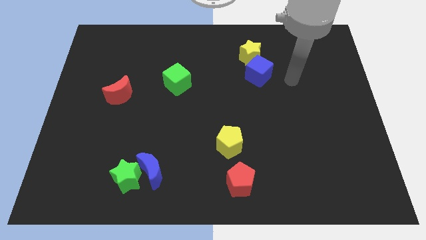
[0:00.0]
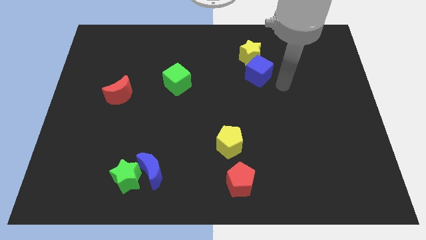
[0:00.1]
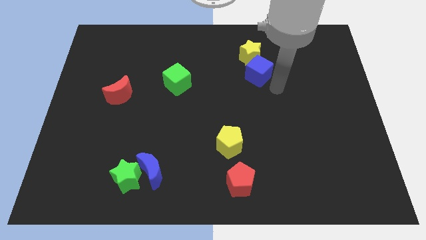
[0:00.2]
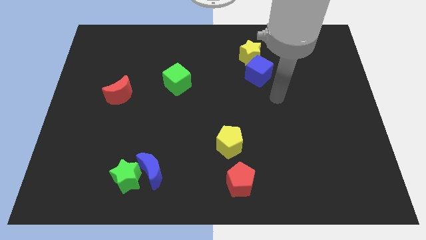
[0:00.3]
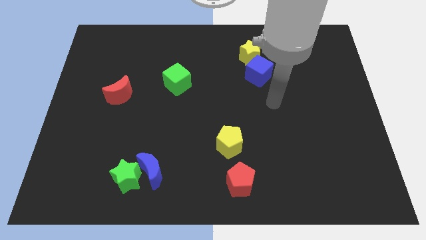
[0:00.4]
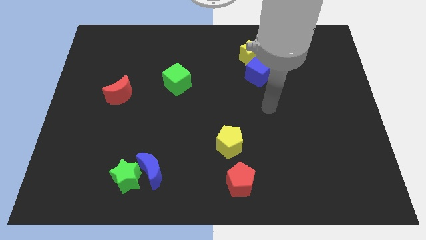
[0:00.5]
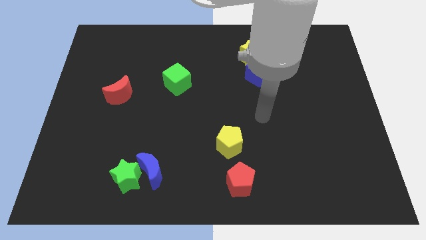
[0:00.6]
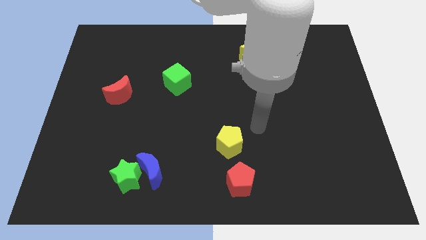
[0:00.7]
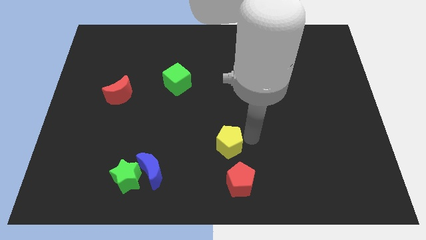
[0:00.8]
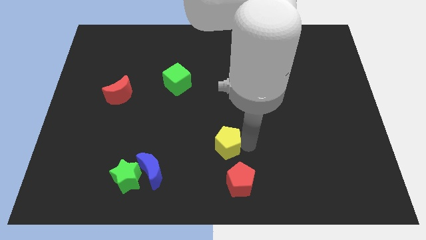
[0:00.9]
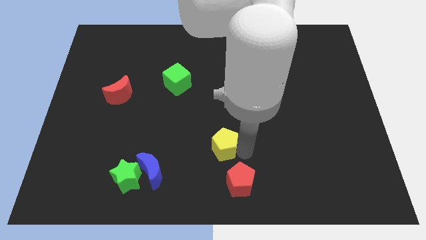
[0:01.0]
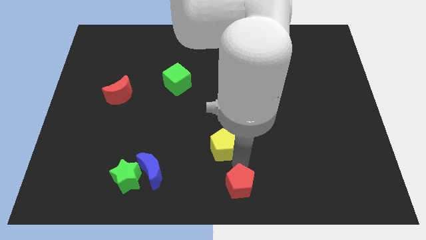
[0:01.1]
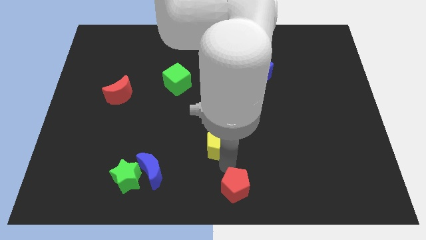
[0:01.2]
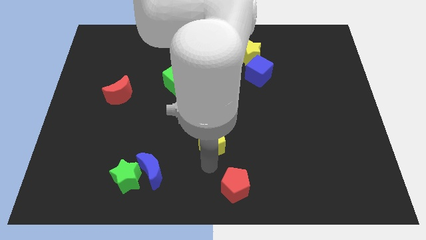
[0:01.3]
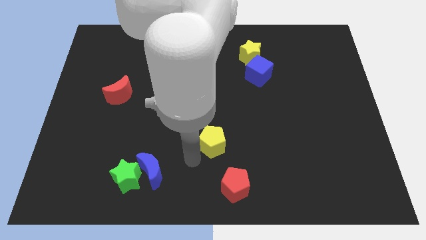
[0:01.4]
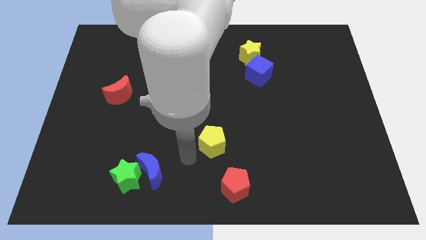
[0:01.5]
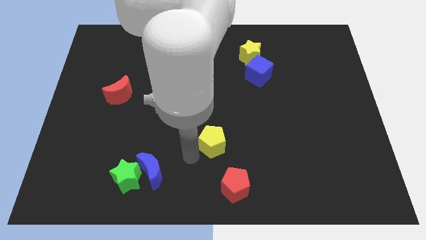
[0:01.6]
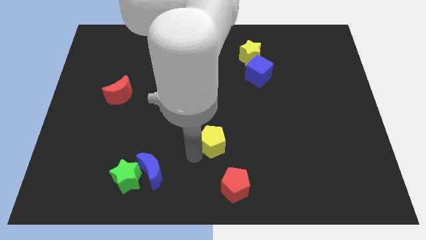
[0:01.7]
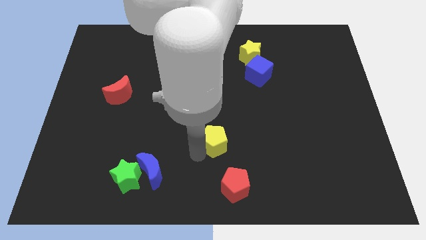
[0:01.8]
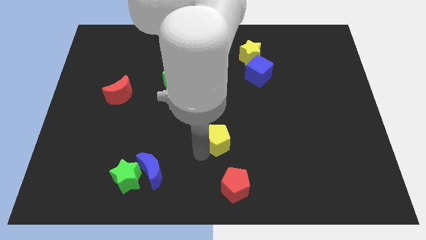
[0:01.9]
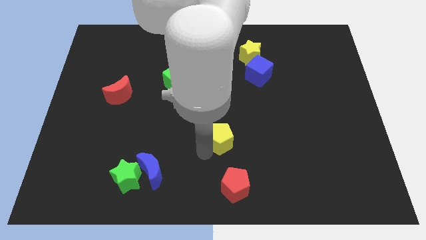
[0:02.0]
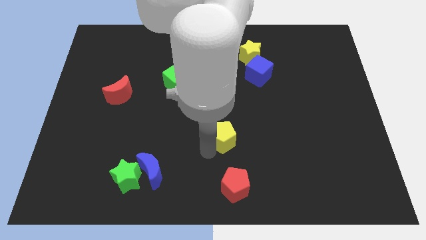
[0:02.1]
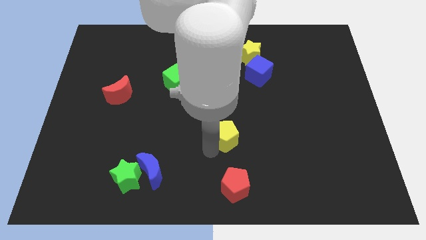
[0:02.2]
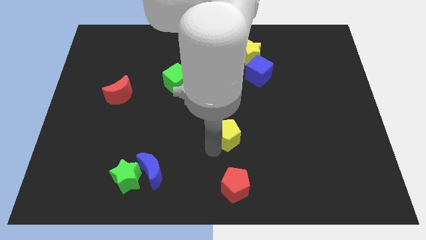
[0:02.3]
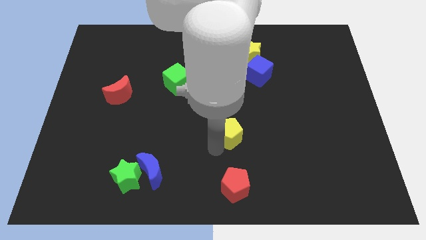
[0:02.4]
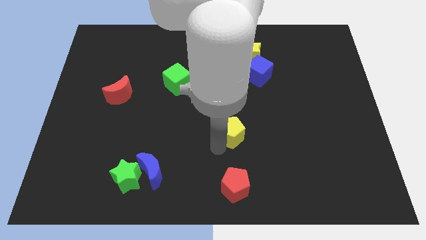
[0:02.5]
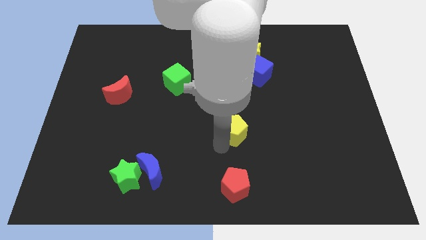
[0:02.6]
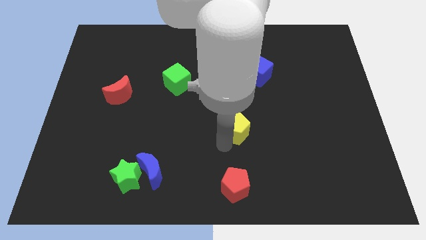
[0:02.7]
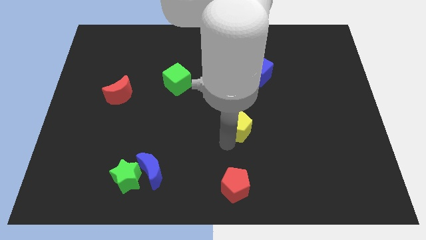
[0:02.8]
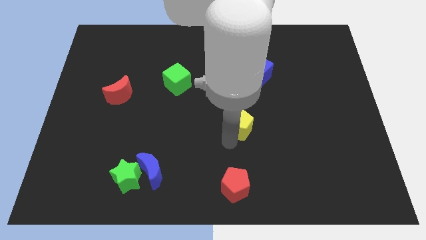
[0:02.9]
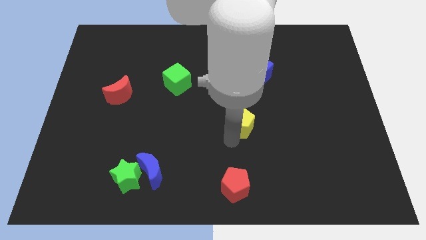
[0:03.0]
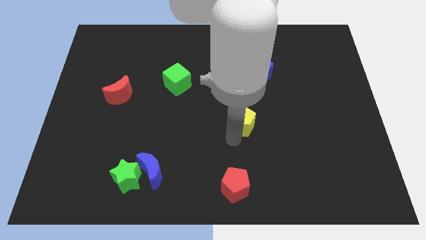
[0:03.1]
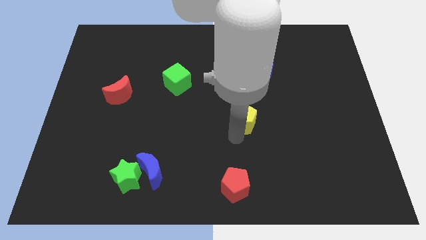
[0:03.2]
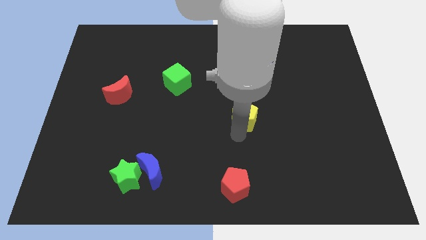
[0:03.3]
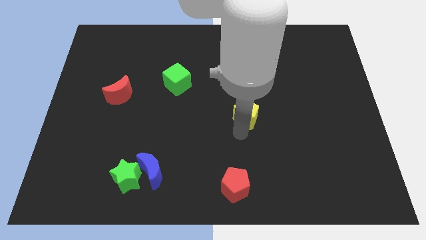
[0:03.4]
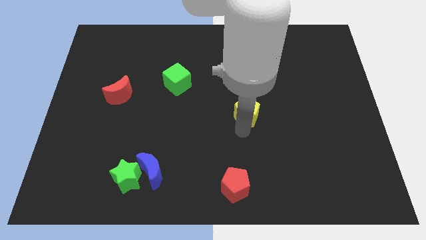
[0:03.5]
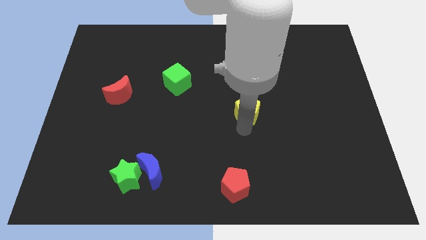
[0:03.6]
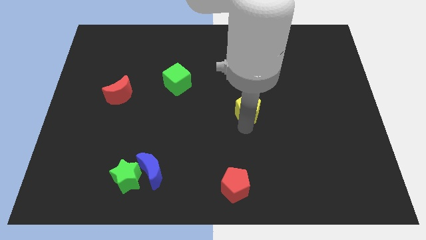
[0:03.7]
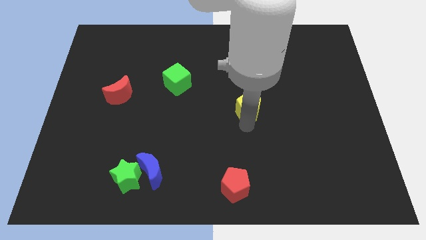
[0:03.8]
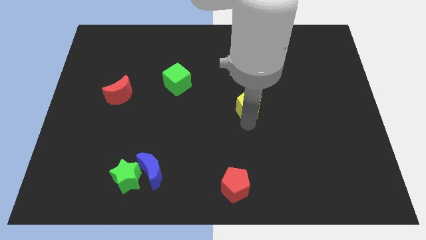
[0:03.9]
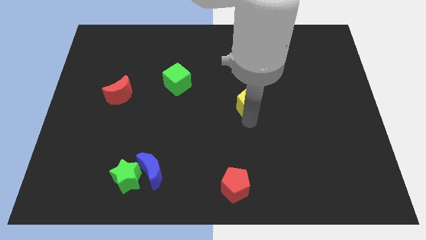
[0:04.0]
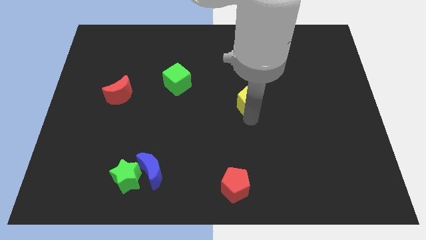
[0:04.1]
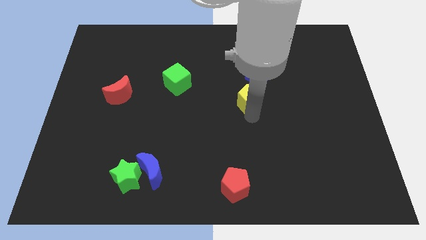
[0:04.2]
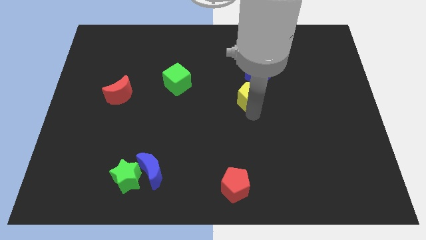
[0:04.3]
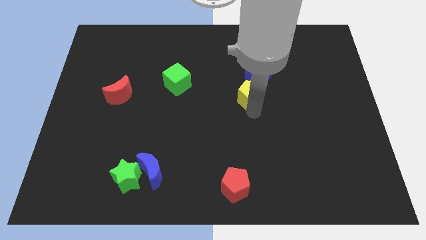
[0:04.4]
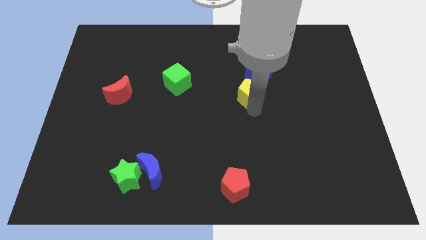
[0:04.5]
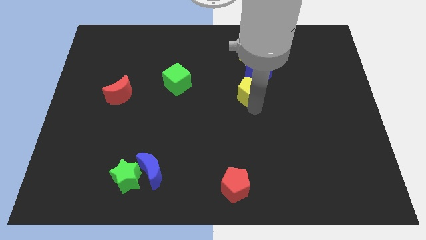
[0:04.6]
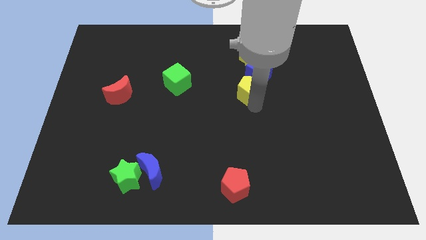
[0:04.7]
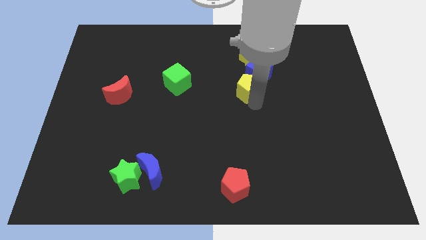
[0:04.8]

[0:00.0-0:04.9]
push the yellow pentagon to the blue cube

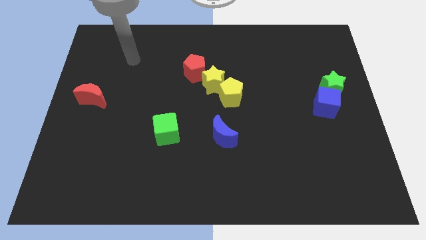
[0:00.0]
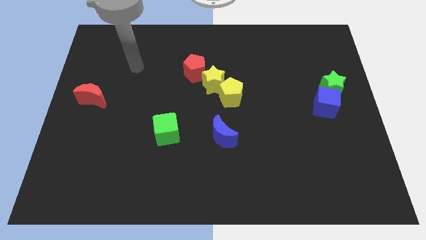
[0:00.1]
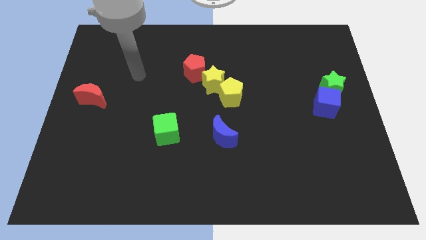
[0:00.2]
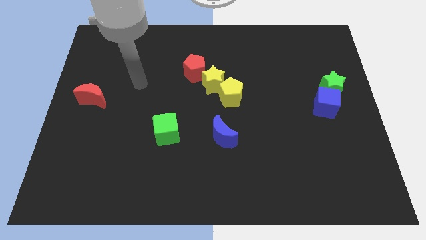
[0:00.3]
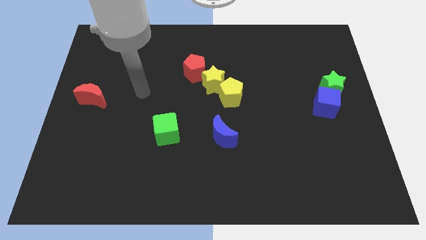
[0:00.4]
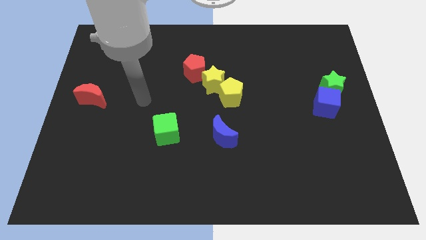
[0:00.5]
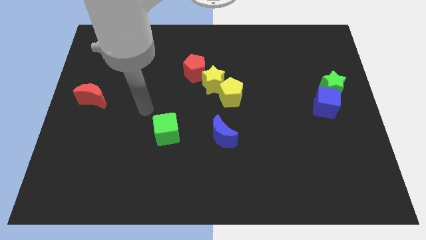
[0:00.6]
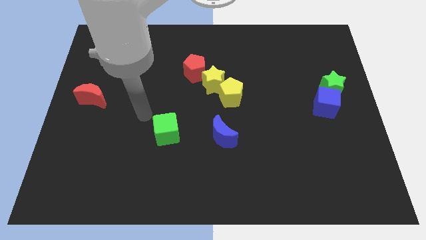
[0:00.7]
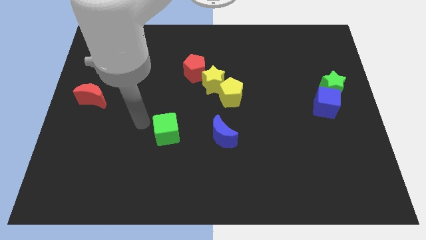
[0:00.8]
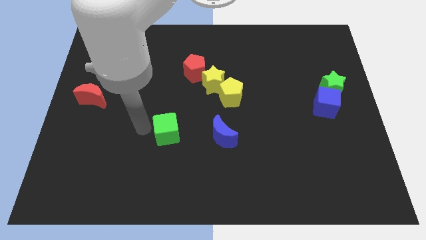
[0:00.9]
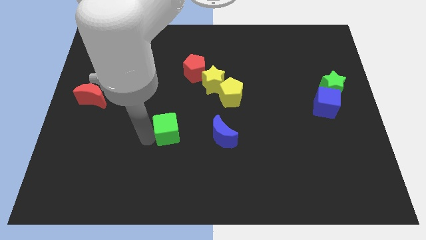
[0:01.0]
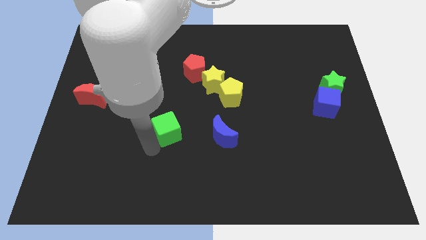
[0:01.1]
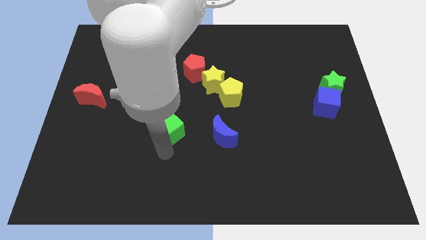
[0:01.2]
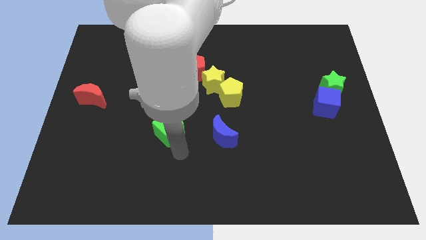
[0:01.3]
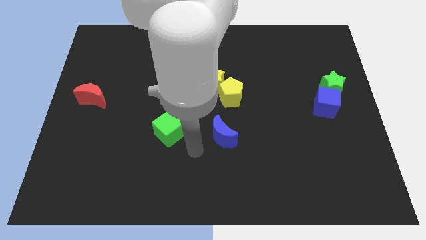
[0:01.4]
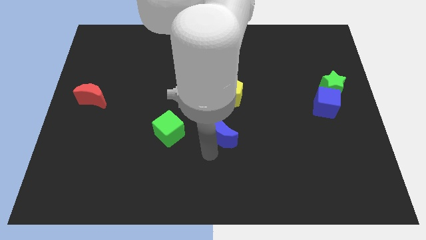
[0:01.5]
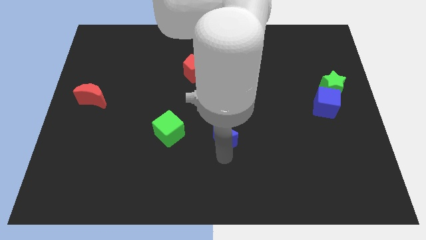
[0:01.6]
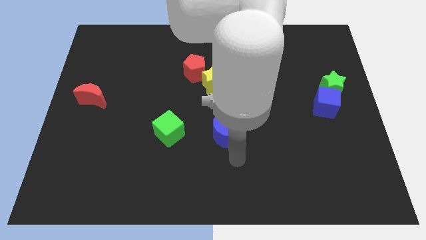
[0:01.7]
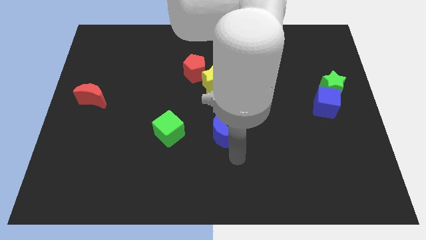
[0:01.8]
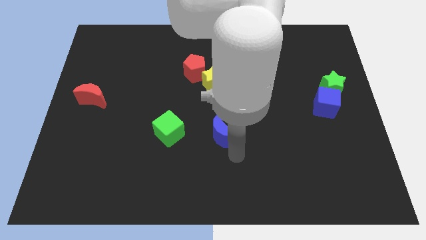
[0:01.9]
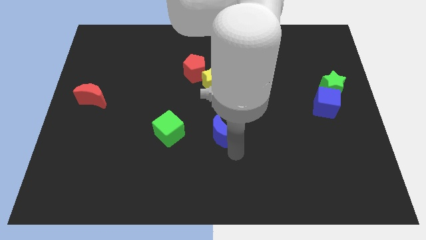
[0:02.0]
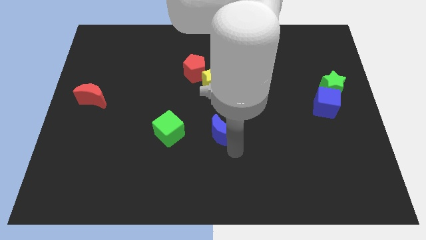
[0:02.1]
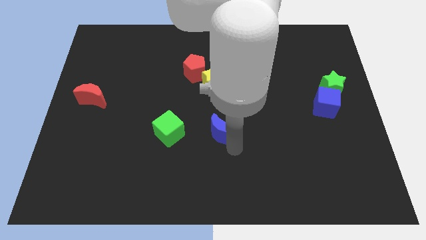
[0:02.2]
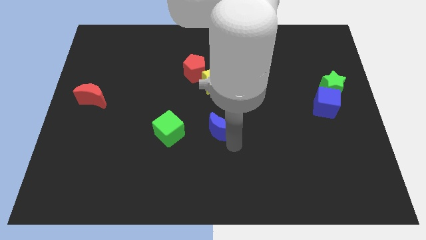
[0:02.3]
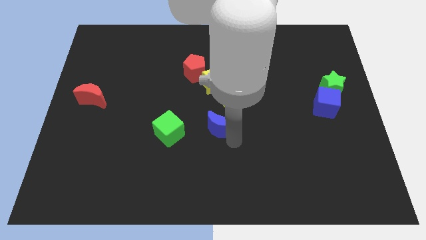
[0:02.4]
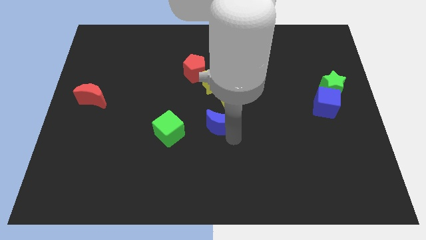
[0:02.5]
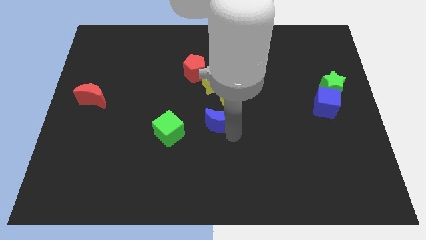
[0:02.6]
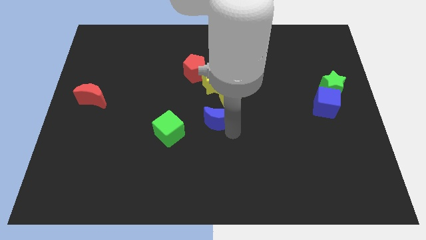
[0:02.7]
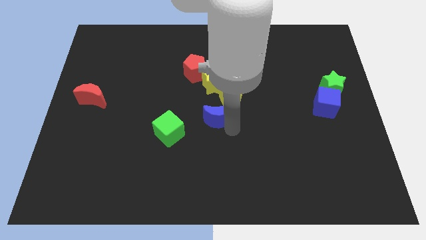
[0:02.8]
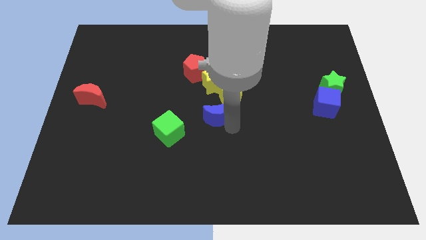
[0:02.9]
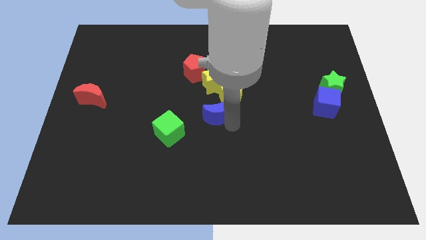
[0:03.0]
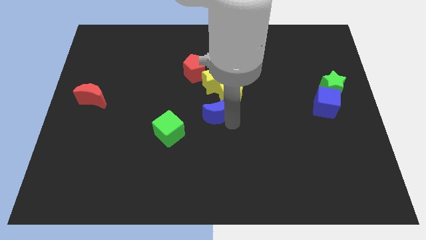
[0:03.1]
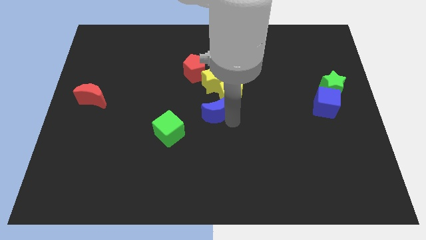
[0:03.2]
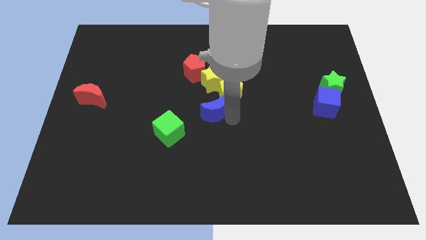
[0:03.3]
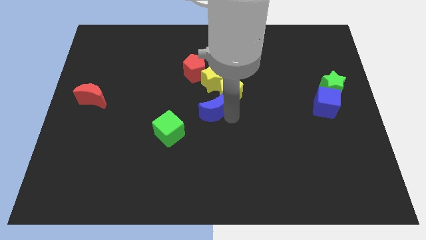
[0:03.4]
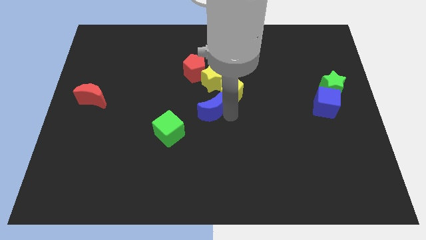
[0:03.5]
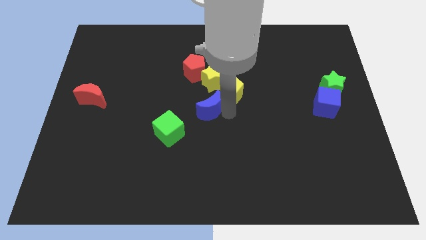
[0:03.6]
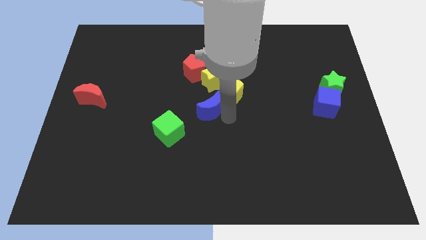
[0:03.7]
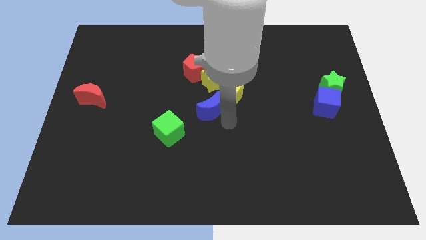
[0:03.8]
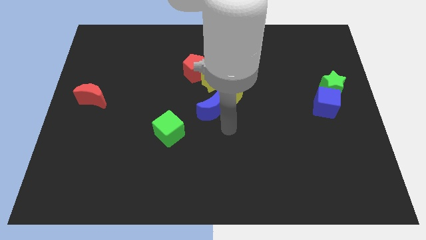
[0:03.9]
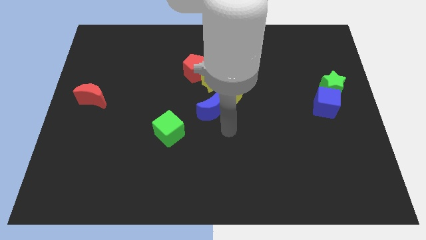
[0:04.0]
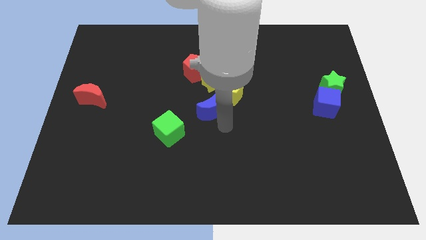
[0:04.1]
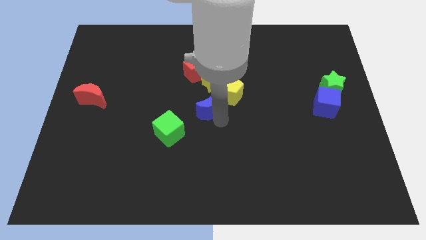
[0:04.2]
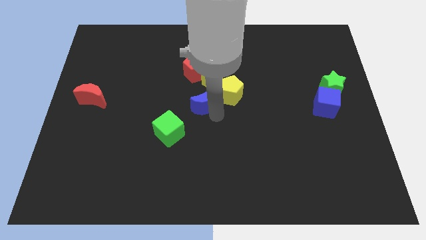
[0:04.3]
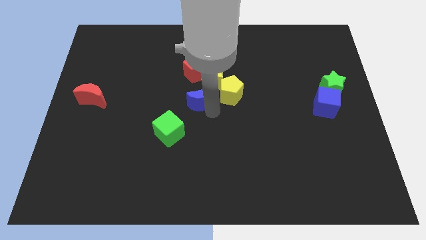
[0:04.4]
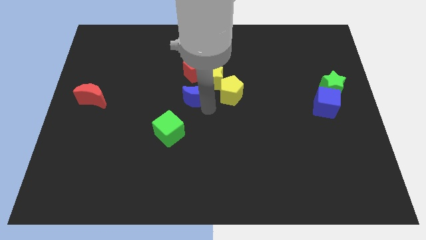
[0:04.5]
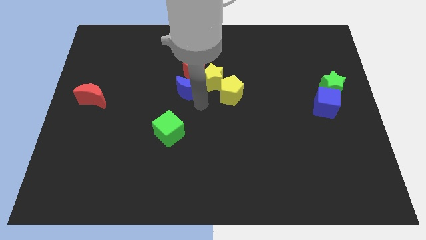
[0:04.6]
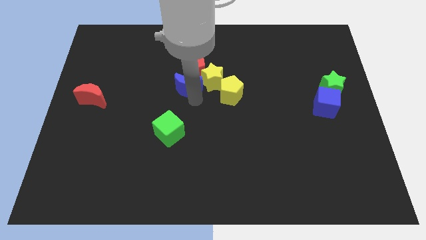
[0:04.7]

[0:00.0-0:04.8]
slide the blue moon to the red pentagon
